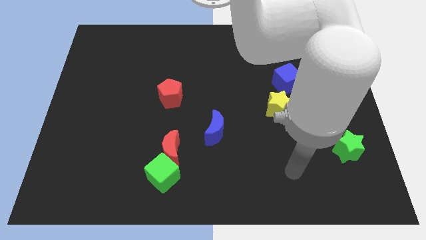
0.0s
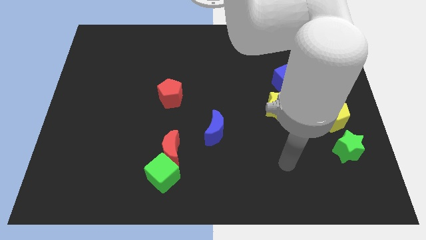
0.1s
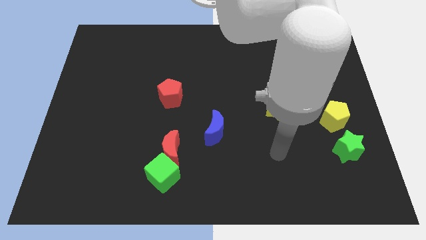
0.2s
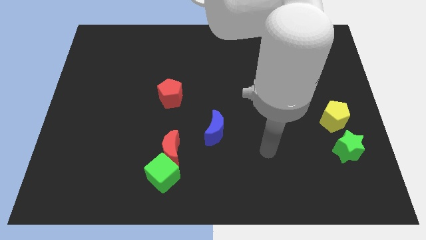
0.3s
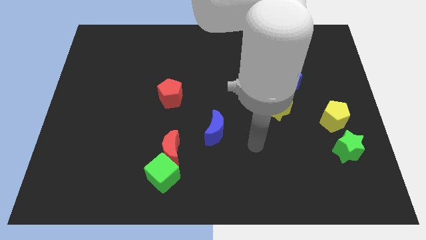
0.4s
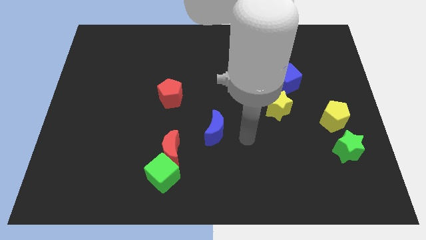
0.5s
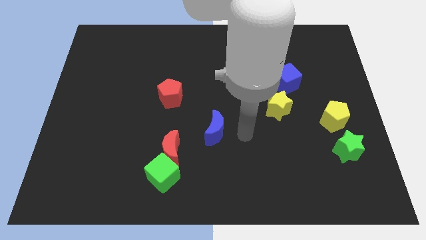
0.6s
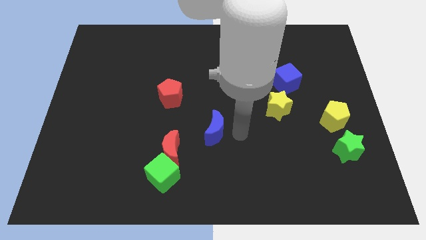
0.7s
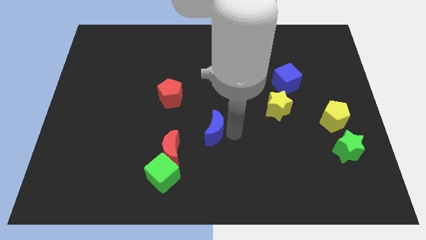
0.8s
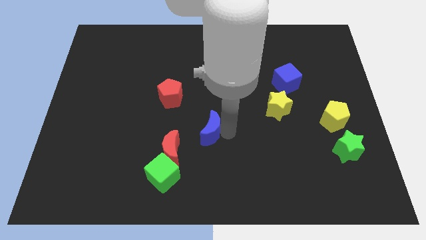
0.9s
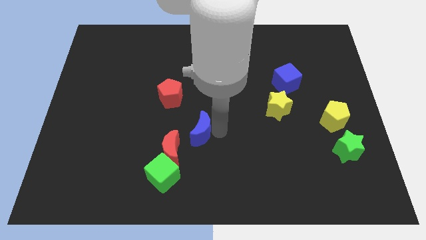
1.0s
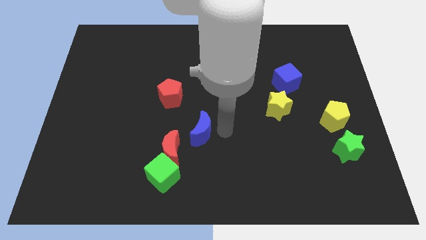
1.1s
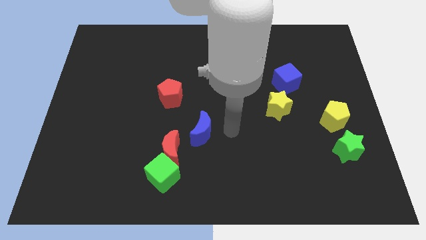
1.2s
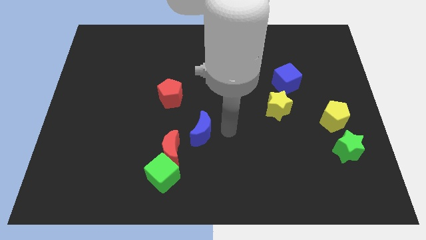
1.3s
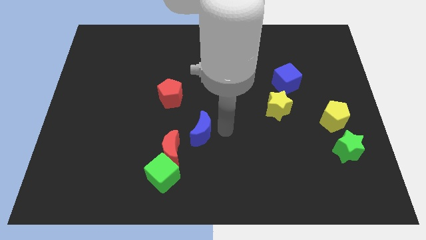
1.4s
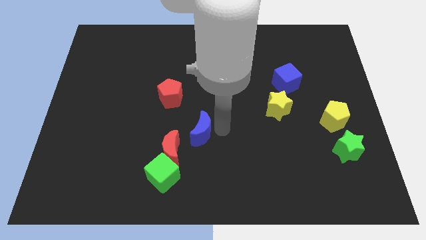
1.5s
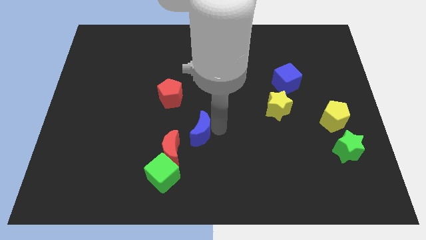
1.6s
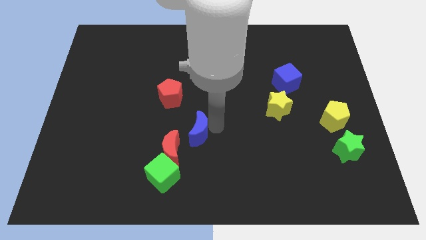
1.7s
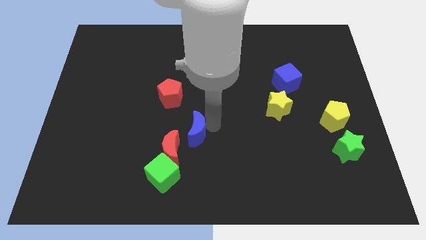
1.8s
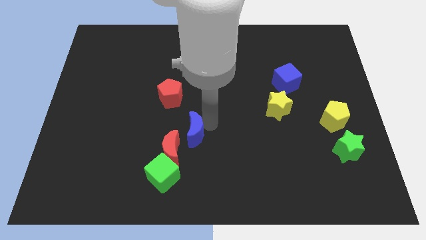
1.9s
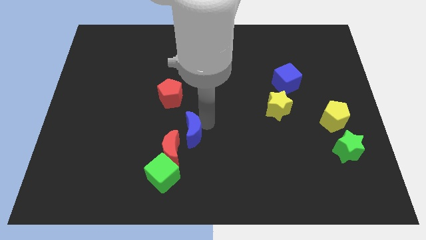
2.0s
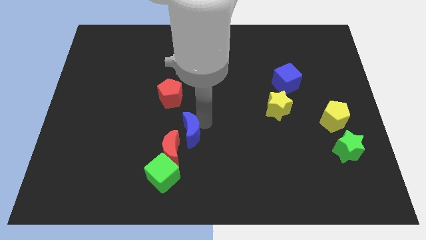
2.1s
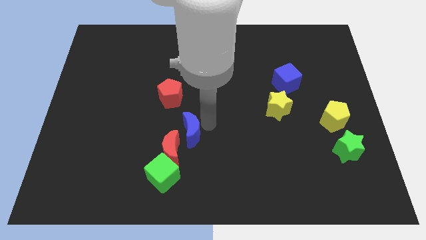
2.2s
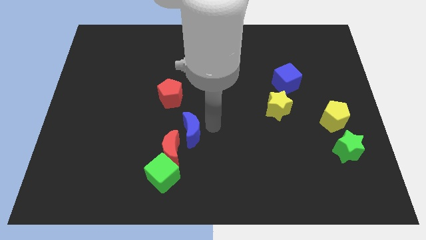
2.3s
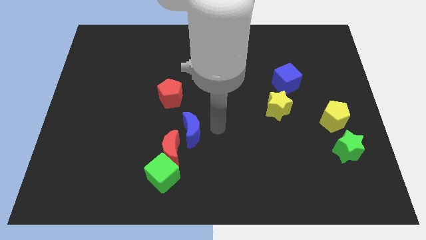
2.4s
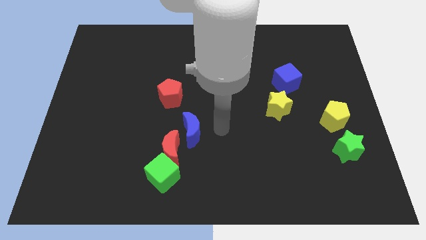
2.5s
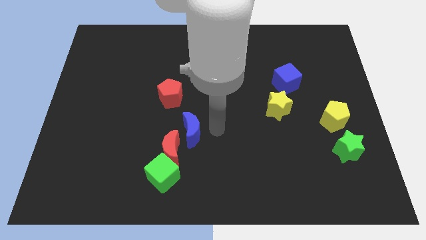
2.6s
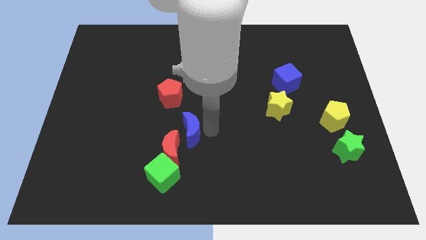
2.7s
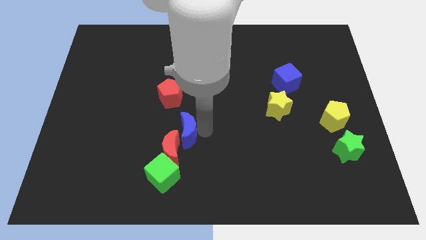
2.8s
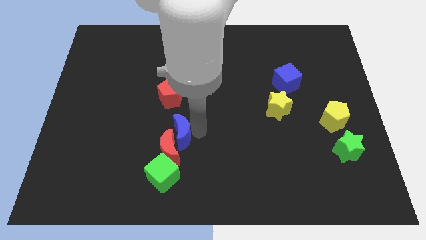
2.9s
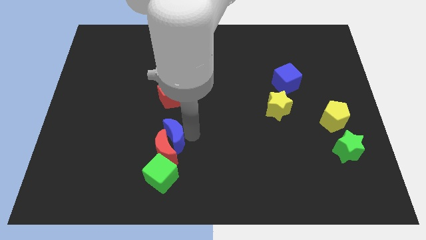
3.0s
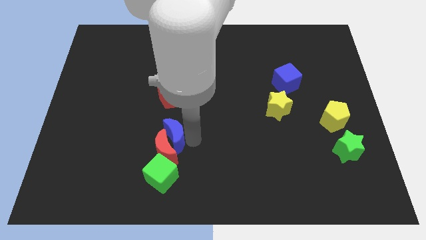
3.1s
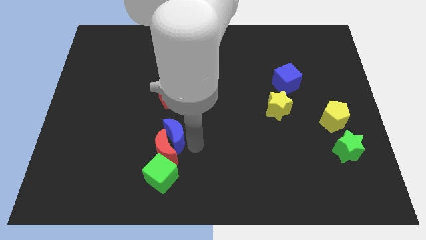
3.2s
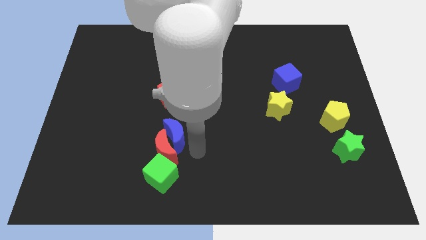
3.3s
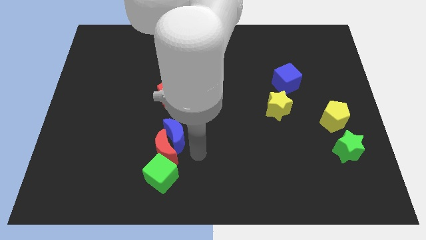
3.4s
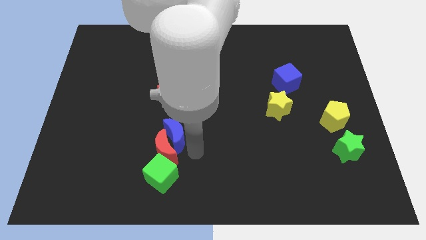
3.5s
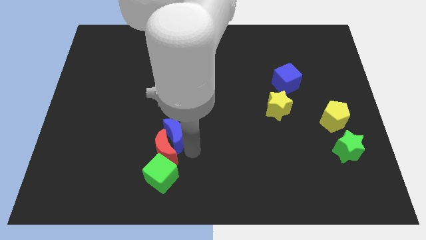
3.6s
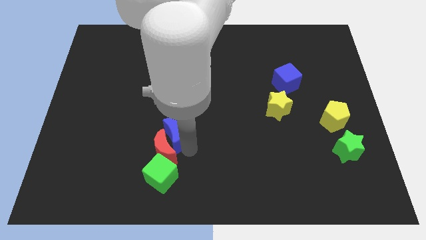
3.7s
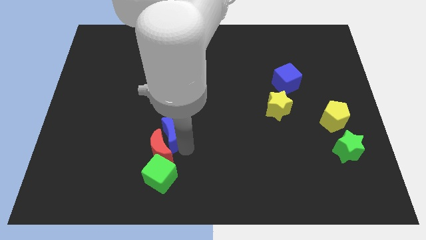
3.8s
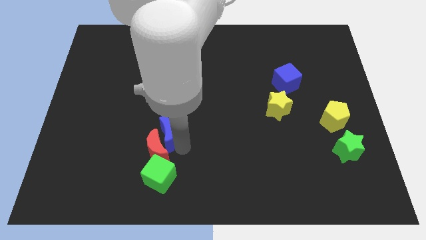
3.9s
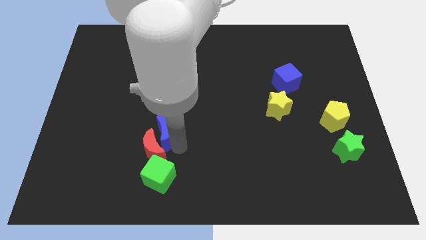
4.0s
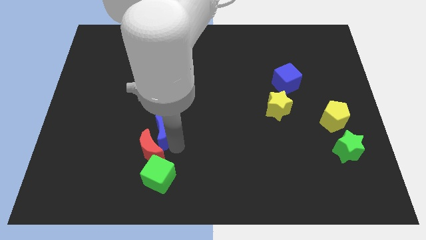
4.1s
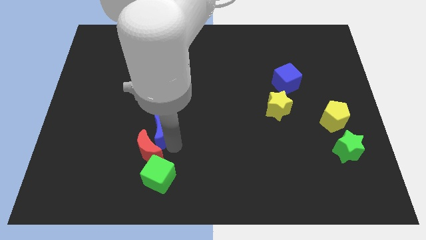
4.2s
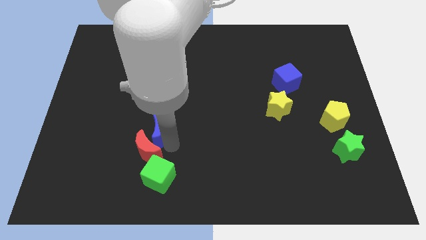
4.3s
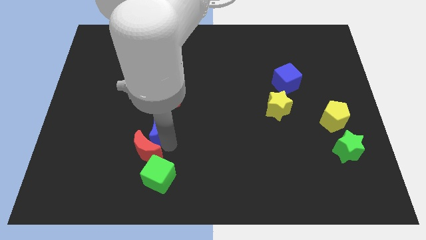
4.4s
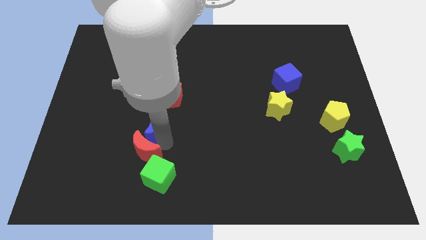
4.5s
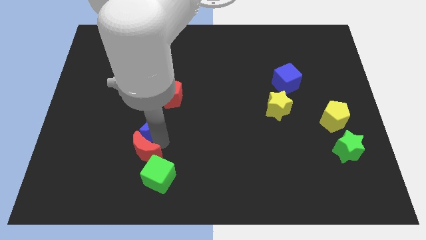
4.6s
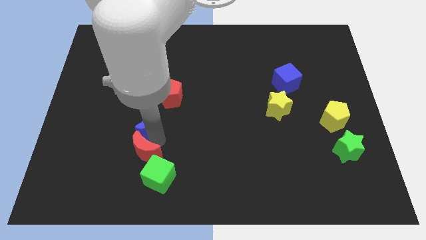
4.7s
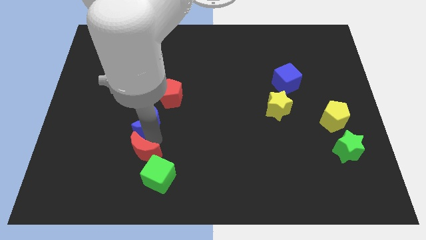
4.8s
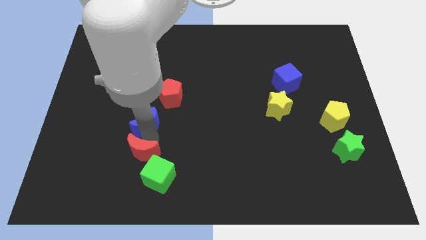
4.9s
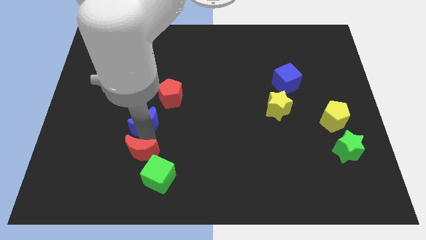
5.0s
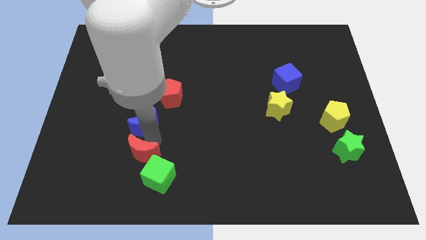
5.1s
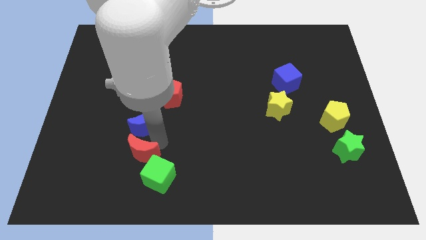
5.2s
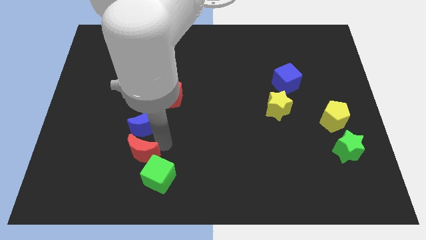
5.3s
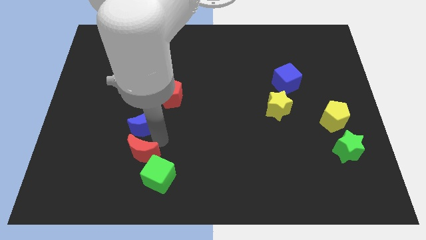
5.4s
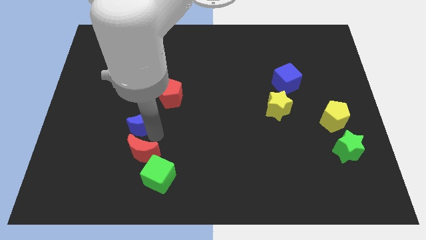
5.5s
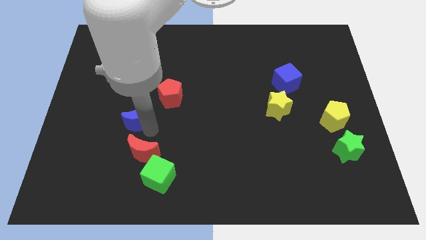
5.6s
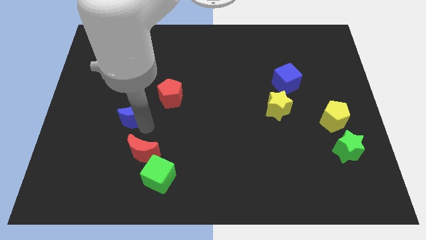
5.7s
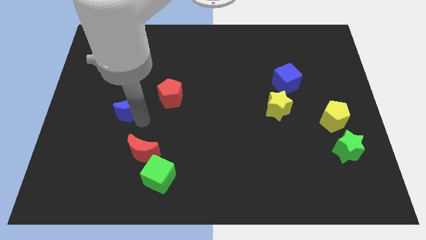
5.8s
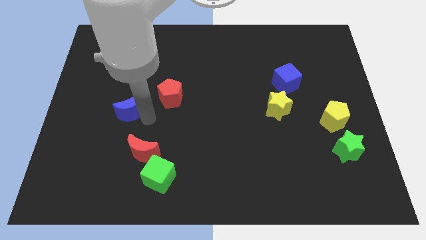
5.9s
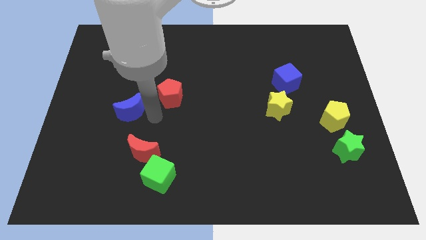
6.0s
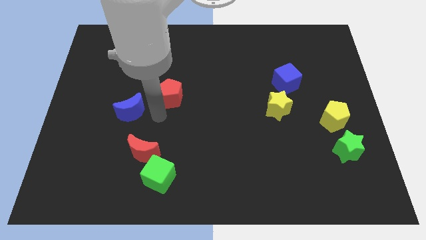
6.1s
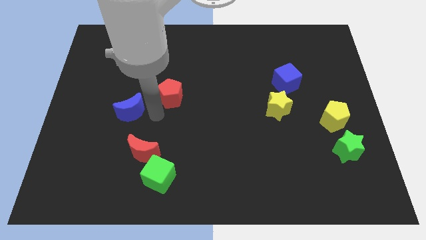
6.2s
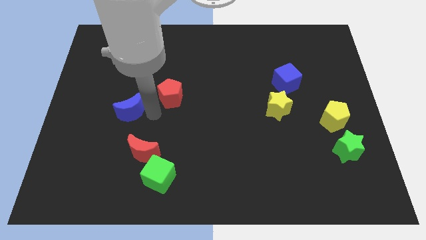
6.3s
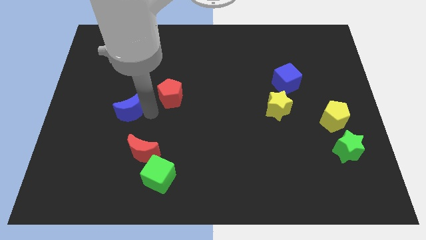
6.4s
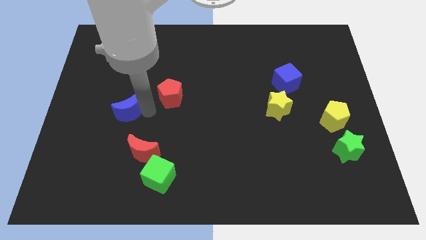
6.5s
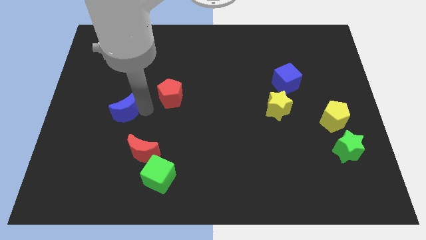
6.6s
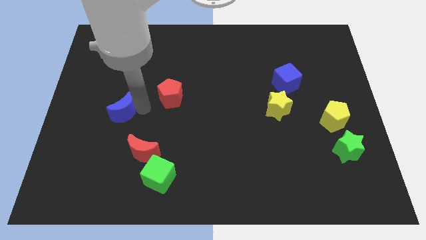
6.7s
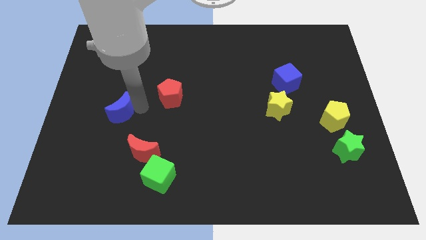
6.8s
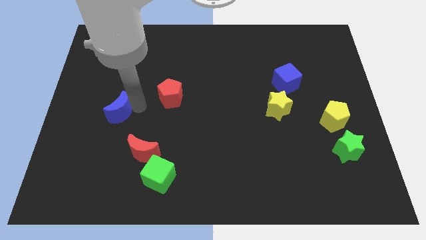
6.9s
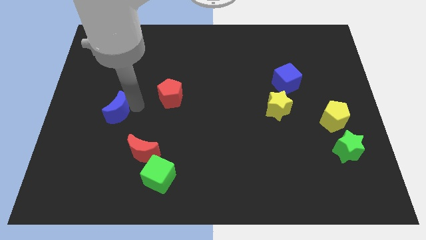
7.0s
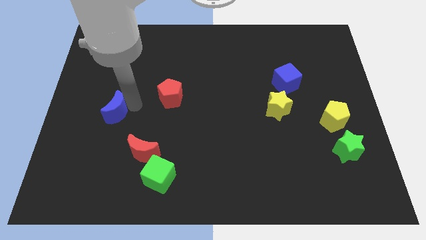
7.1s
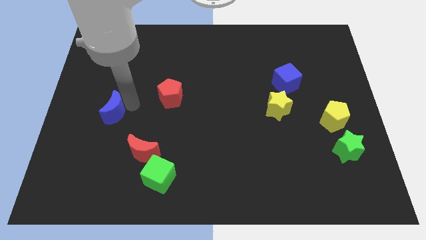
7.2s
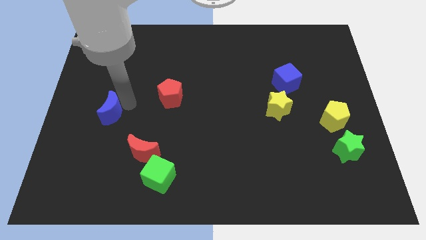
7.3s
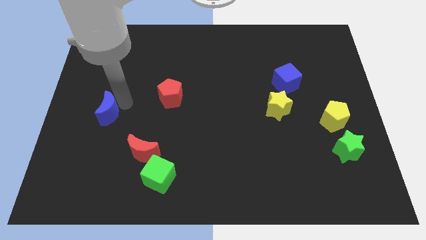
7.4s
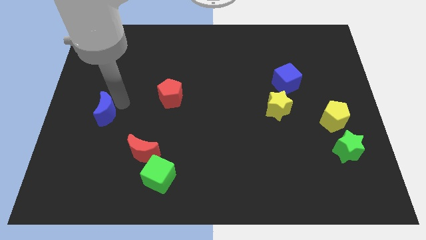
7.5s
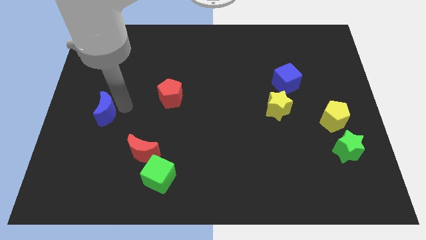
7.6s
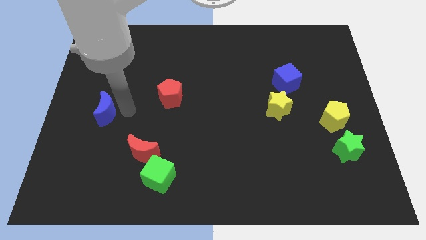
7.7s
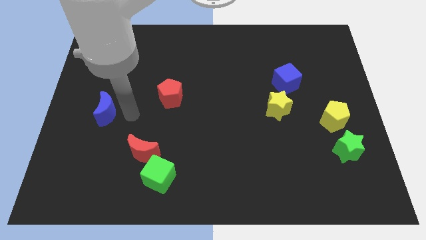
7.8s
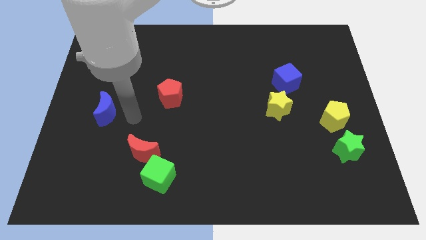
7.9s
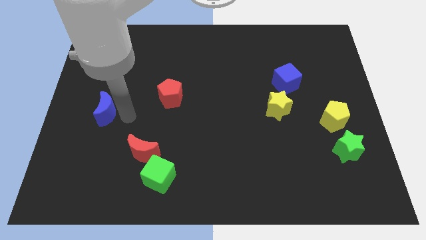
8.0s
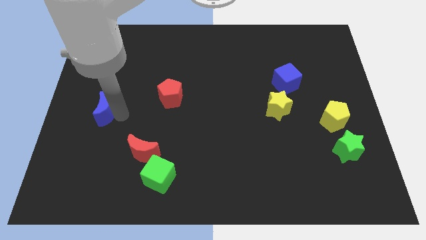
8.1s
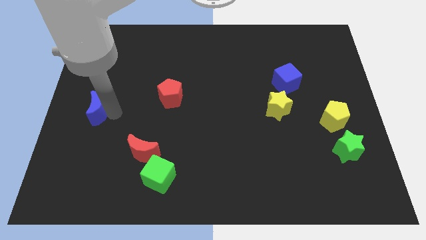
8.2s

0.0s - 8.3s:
push the blue moon to the left side of the board
